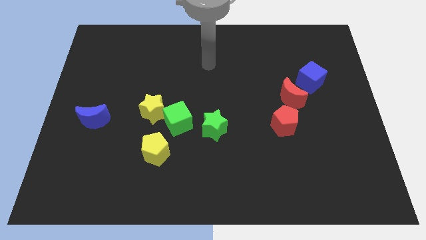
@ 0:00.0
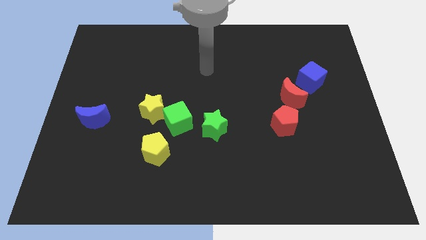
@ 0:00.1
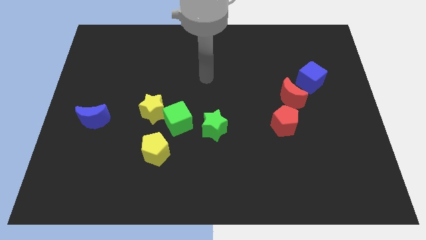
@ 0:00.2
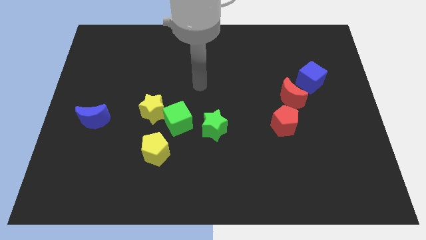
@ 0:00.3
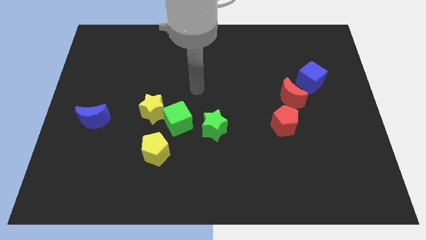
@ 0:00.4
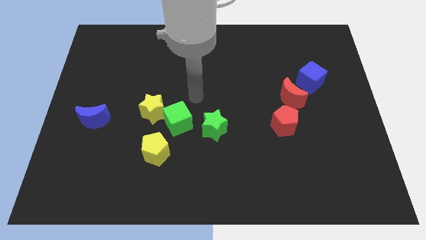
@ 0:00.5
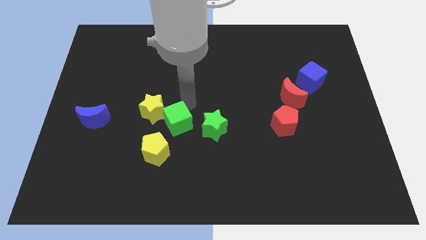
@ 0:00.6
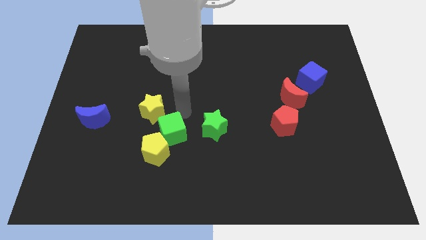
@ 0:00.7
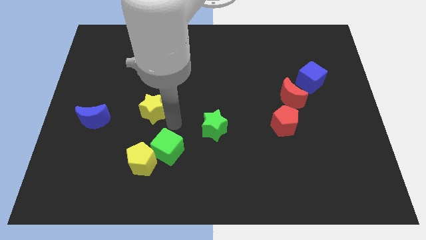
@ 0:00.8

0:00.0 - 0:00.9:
pull the yellow star apart from the green cube

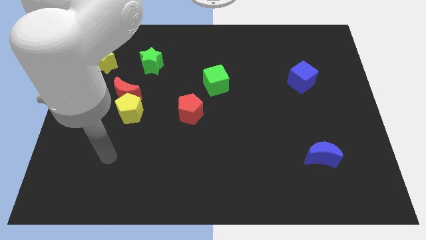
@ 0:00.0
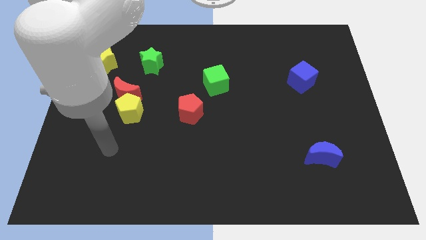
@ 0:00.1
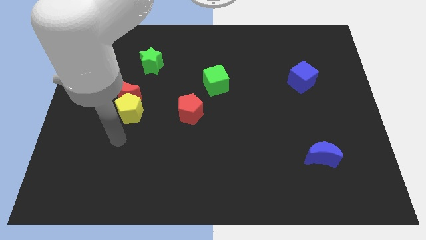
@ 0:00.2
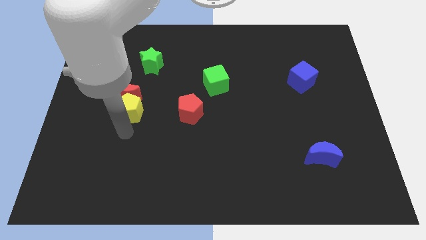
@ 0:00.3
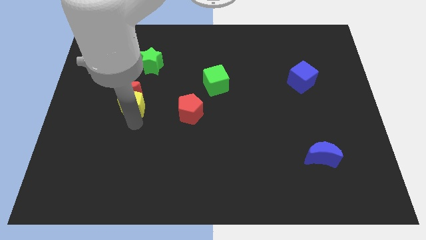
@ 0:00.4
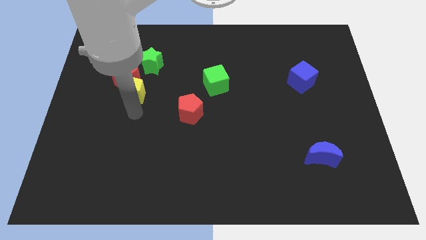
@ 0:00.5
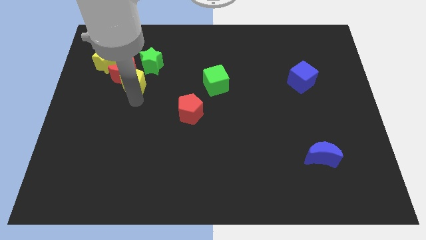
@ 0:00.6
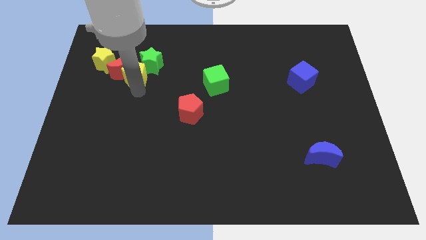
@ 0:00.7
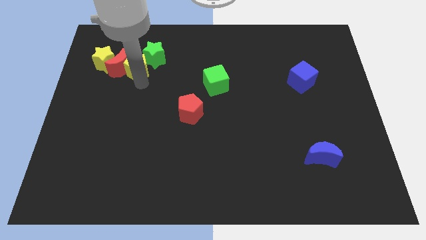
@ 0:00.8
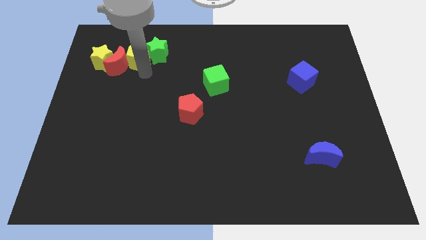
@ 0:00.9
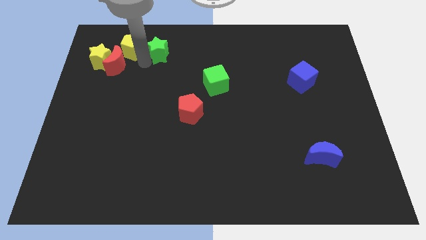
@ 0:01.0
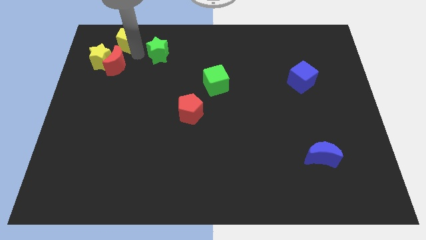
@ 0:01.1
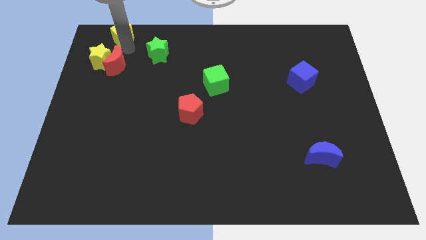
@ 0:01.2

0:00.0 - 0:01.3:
pull the red moon apart from the yellow pentagon

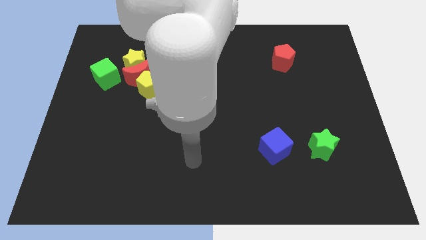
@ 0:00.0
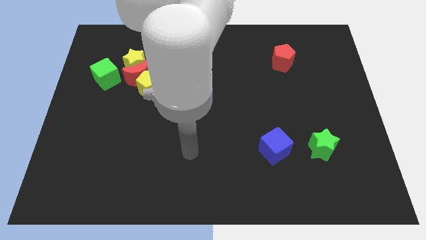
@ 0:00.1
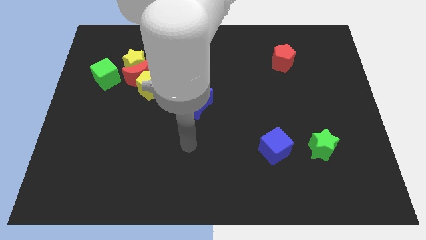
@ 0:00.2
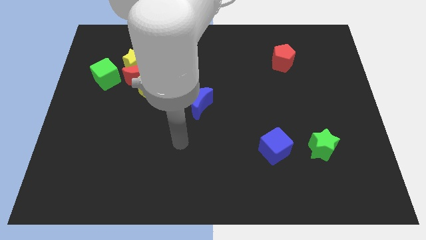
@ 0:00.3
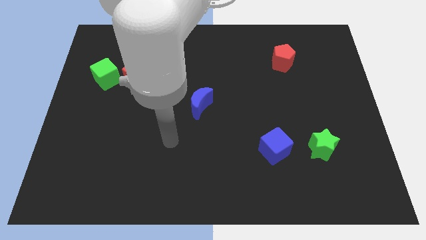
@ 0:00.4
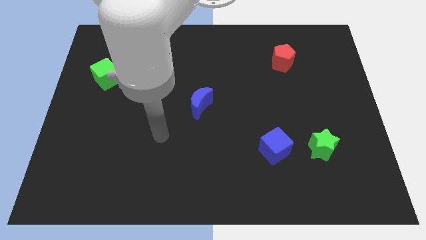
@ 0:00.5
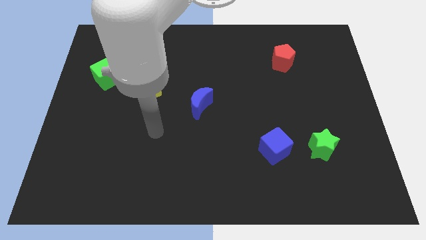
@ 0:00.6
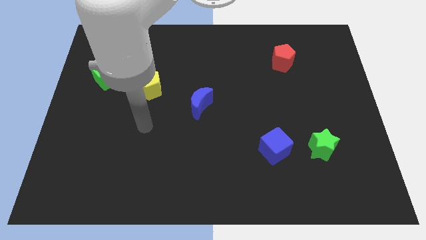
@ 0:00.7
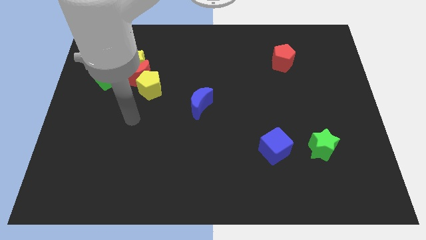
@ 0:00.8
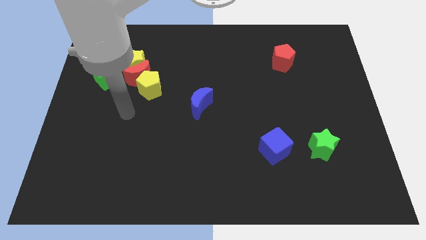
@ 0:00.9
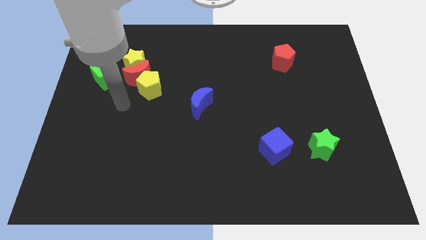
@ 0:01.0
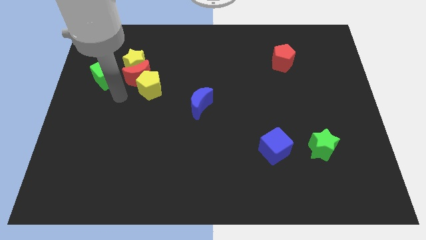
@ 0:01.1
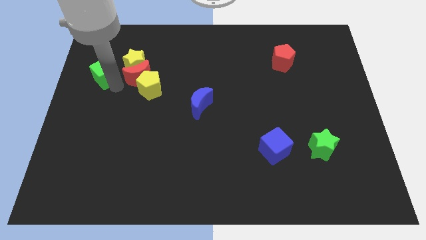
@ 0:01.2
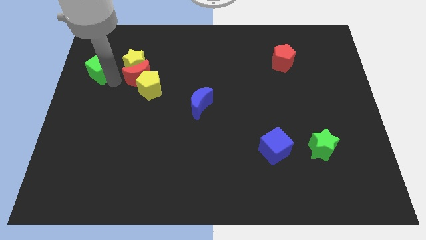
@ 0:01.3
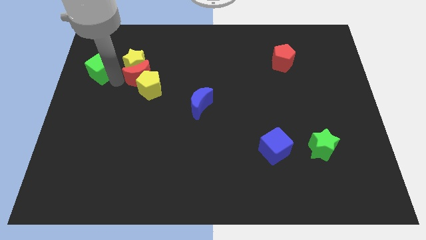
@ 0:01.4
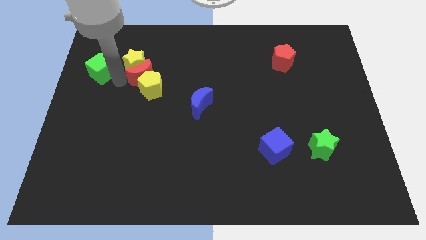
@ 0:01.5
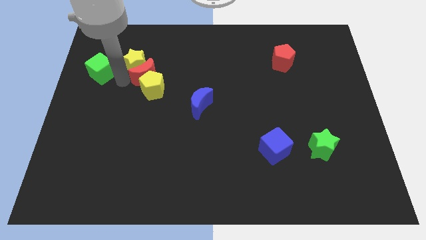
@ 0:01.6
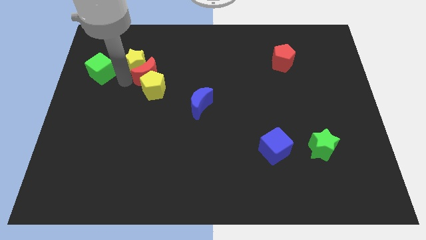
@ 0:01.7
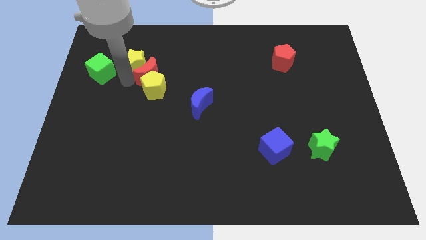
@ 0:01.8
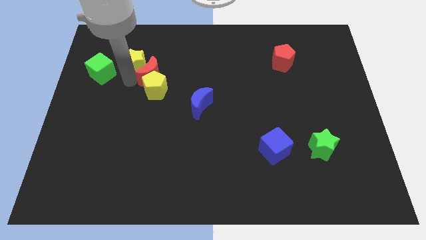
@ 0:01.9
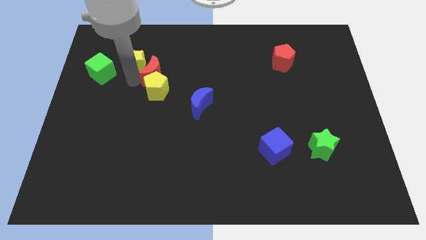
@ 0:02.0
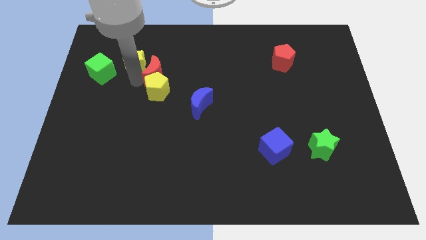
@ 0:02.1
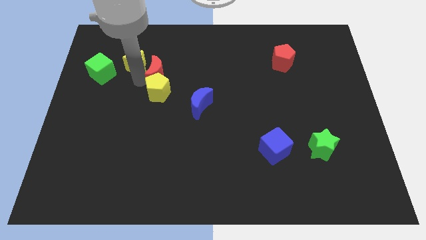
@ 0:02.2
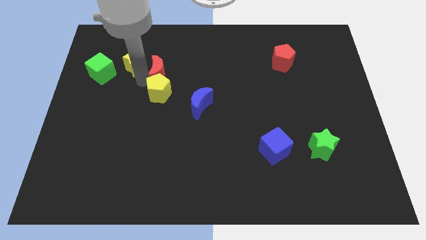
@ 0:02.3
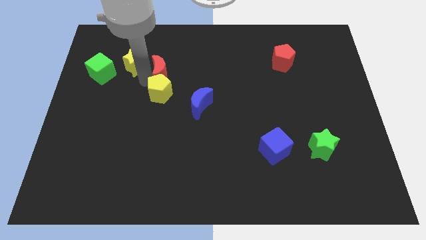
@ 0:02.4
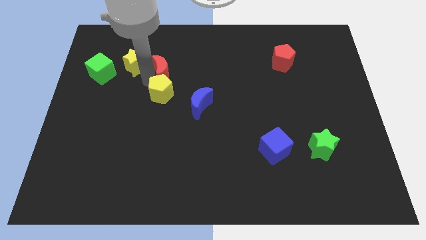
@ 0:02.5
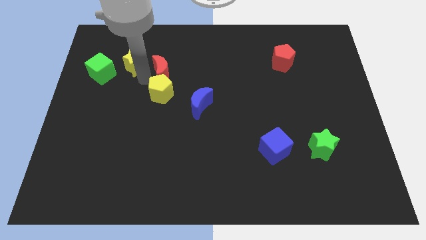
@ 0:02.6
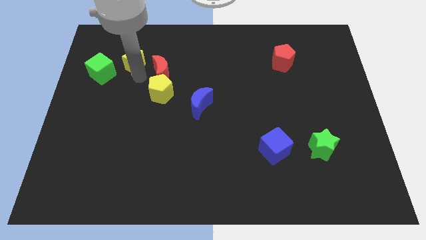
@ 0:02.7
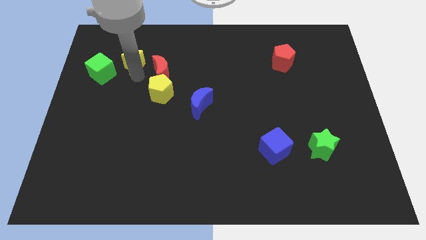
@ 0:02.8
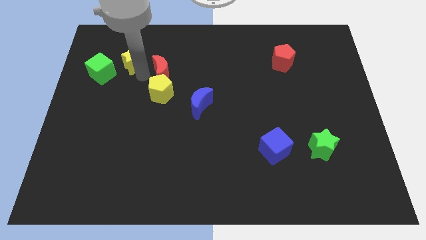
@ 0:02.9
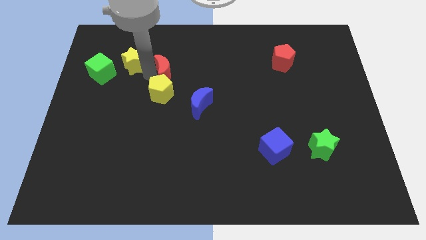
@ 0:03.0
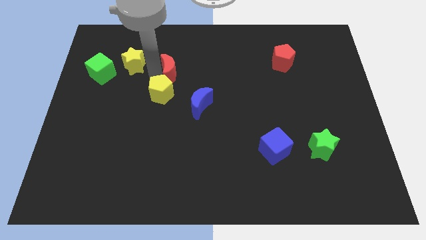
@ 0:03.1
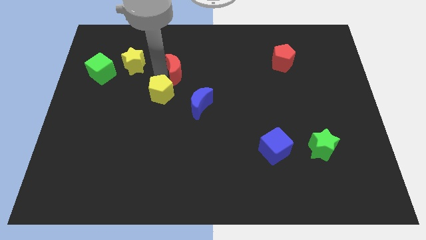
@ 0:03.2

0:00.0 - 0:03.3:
pull the red moon apart from the yellow star, yellow pentagon, and green cube

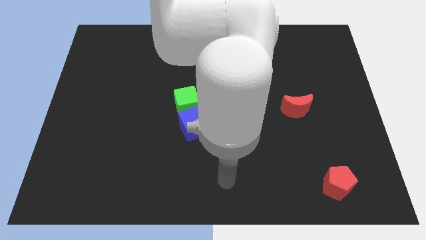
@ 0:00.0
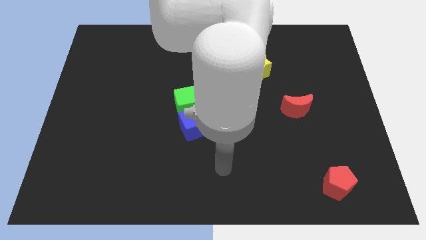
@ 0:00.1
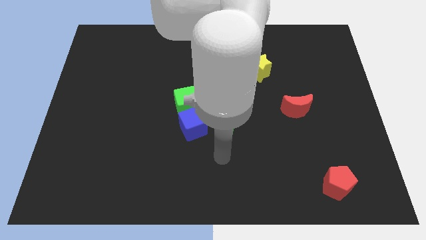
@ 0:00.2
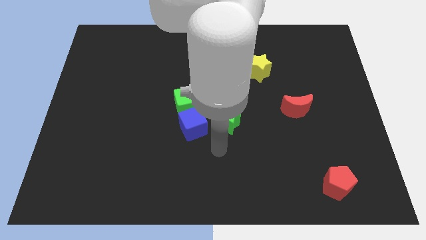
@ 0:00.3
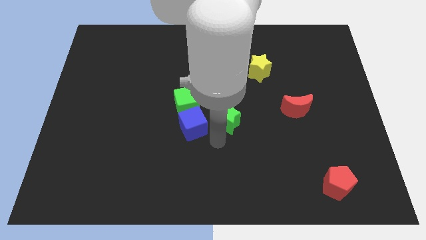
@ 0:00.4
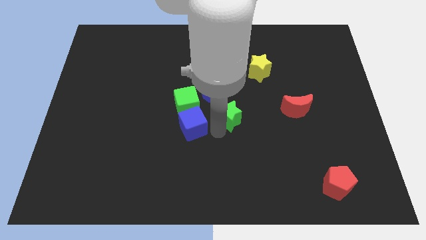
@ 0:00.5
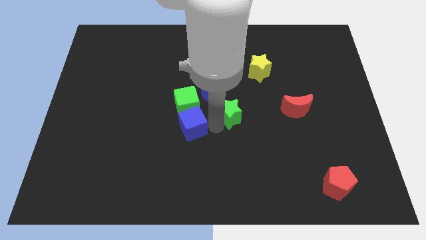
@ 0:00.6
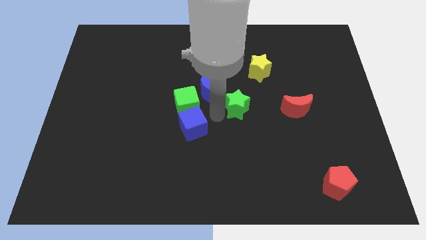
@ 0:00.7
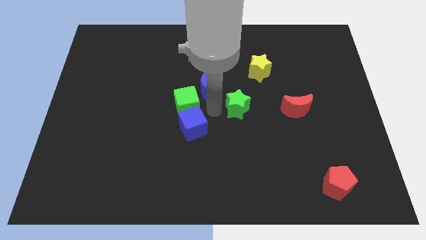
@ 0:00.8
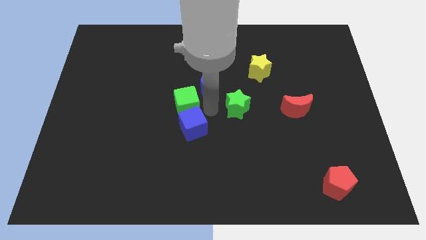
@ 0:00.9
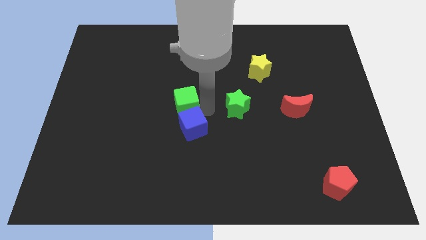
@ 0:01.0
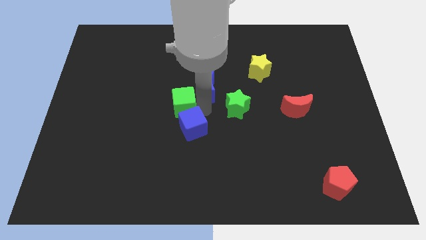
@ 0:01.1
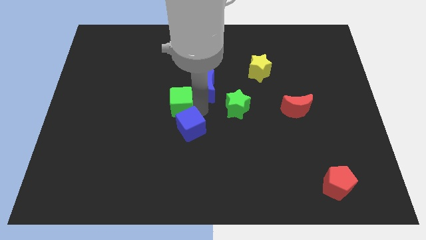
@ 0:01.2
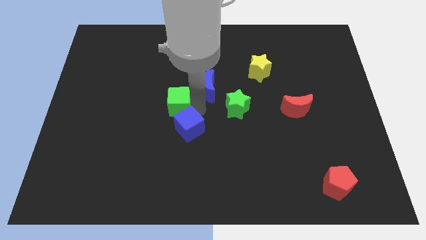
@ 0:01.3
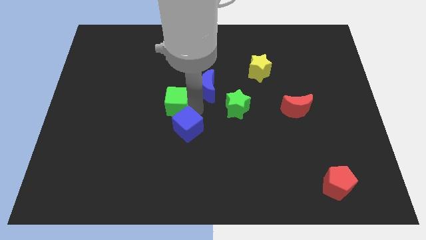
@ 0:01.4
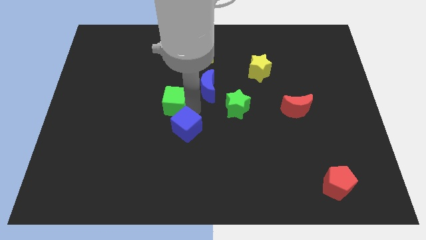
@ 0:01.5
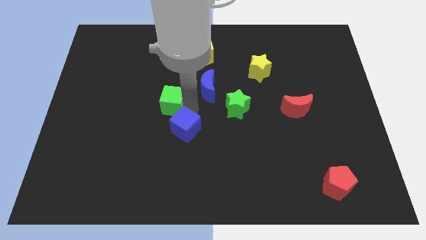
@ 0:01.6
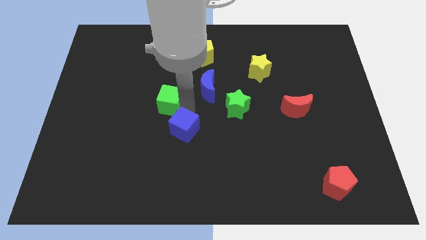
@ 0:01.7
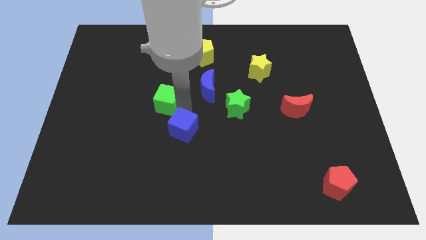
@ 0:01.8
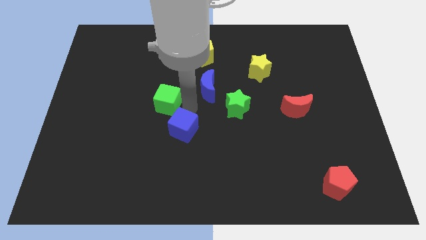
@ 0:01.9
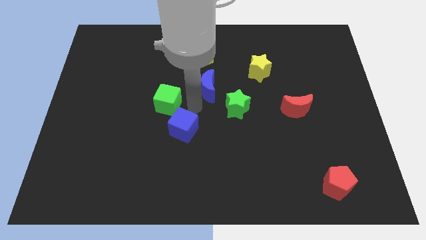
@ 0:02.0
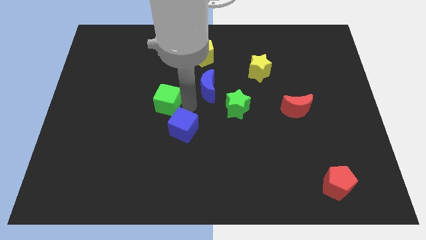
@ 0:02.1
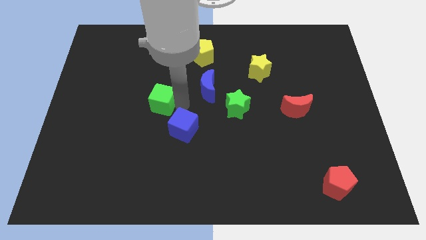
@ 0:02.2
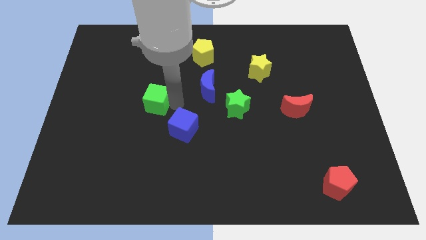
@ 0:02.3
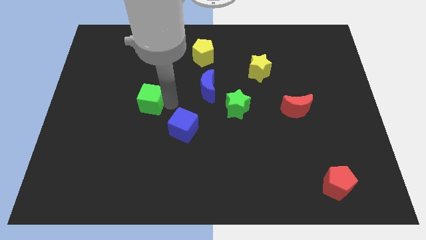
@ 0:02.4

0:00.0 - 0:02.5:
separate the green cube from the blue cube and blue moon

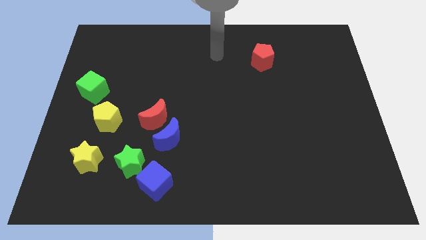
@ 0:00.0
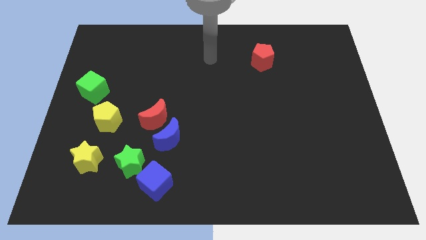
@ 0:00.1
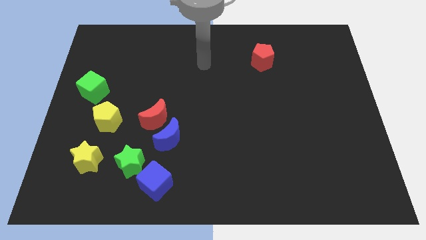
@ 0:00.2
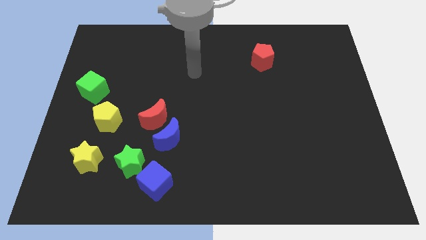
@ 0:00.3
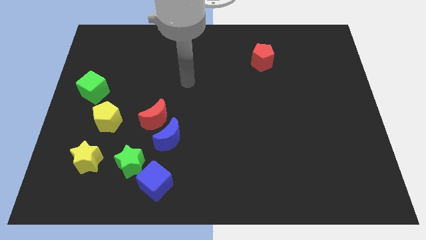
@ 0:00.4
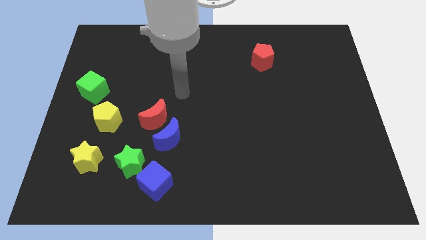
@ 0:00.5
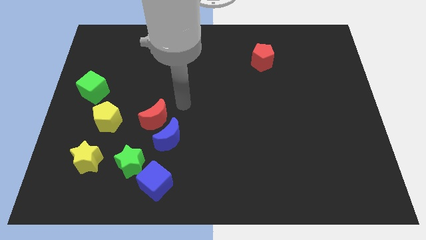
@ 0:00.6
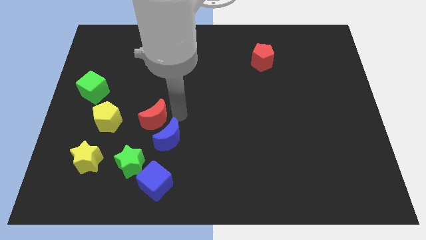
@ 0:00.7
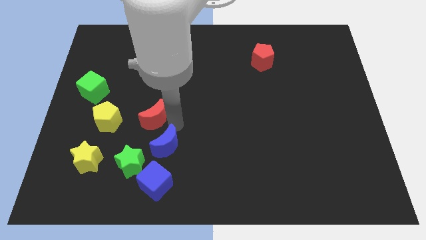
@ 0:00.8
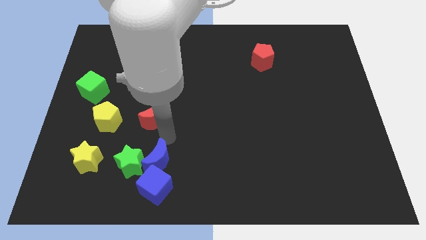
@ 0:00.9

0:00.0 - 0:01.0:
separate the red moon from the blue moon

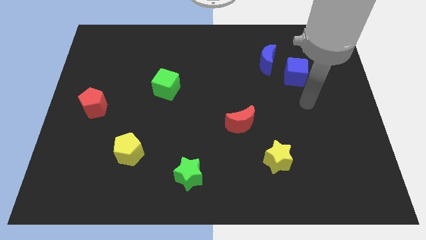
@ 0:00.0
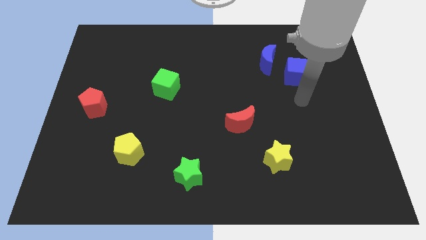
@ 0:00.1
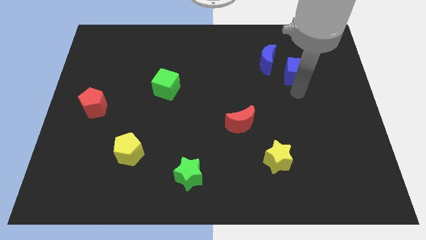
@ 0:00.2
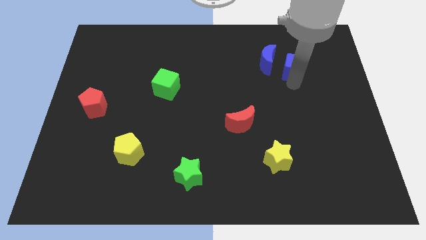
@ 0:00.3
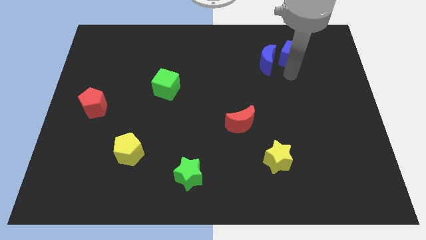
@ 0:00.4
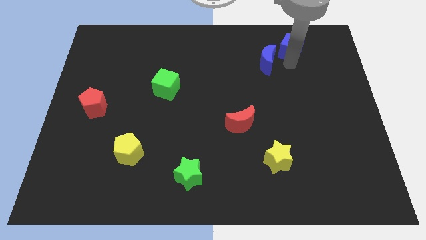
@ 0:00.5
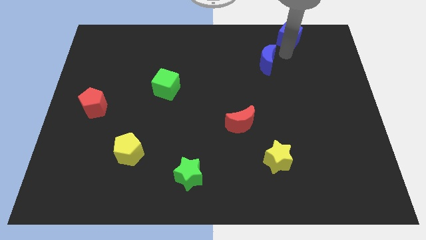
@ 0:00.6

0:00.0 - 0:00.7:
move the blue moon away from the blue cube
